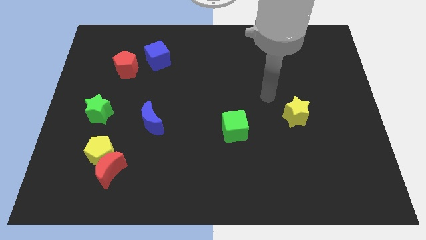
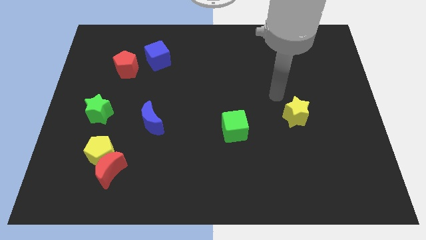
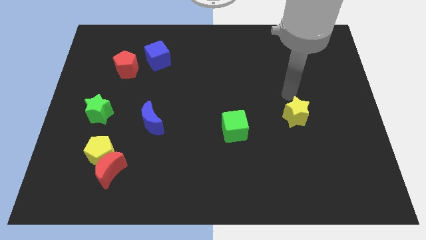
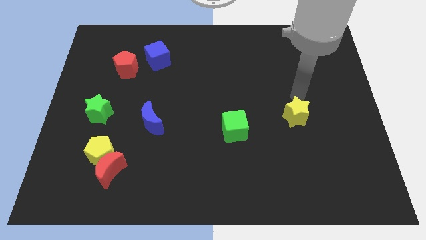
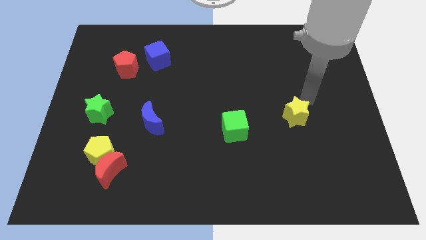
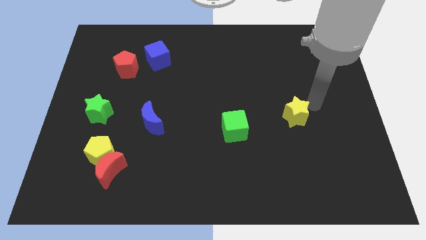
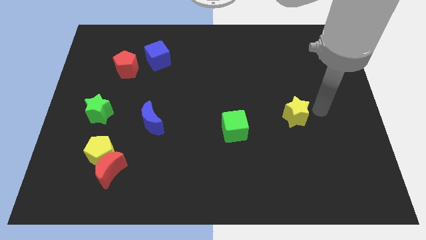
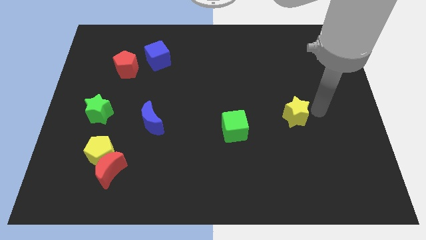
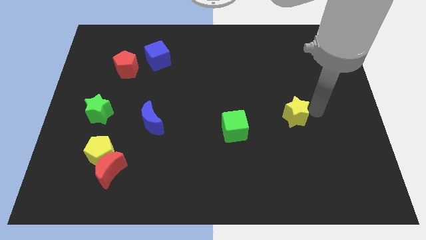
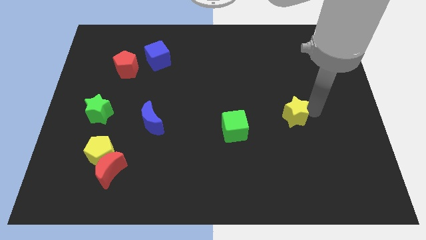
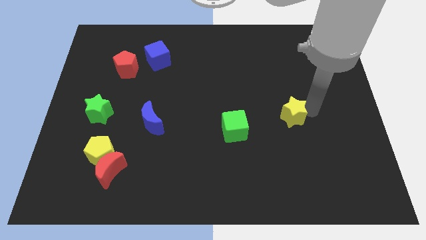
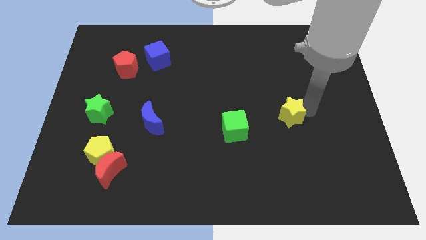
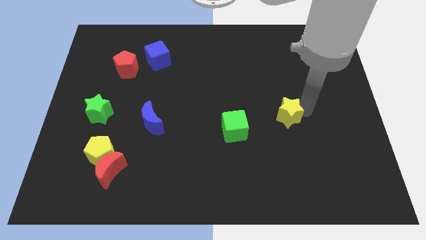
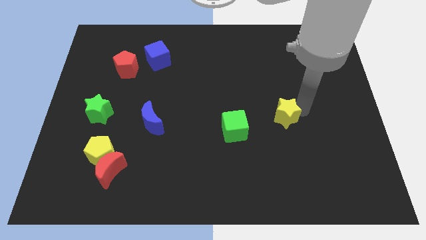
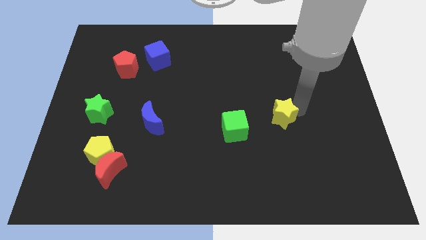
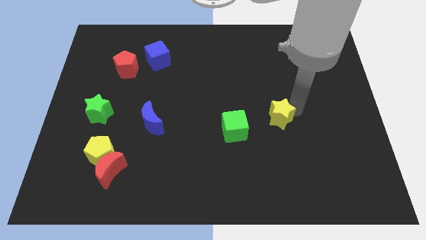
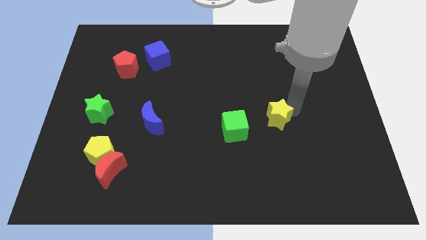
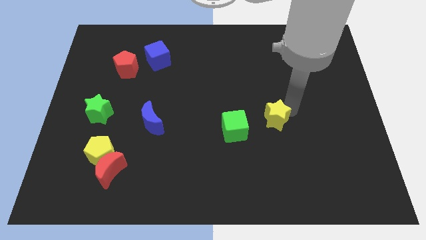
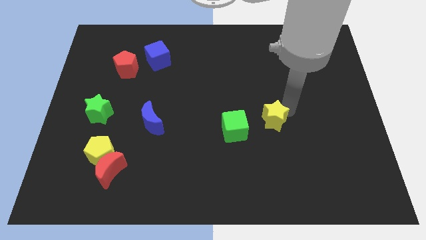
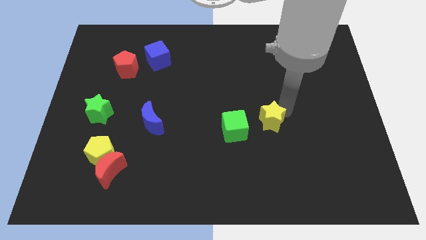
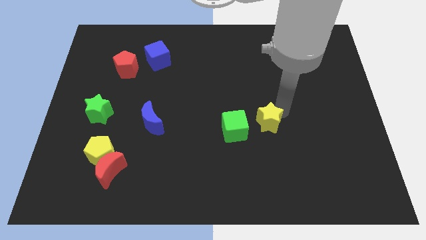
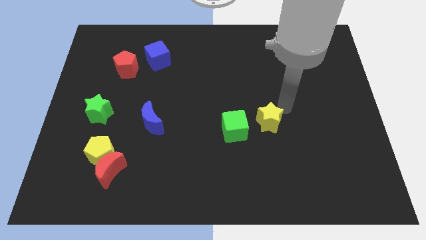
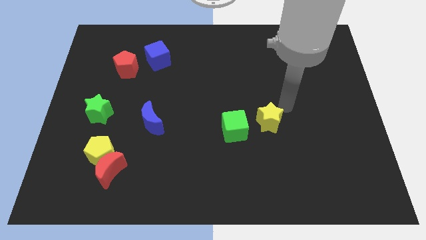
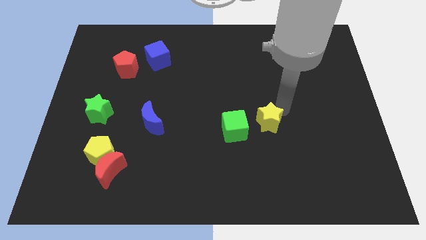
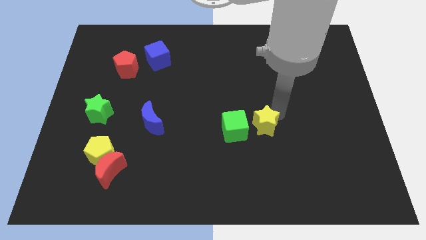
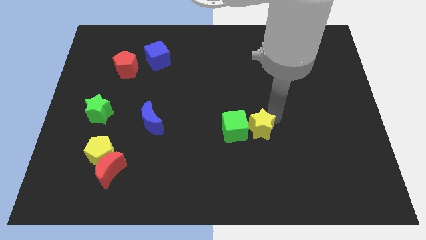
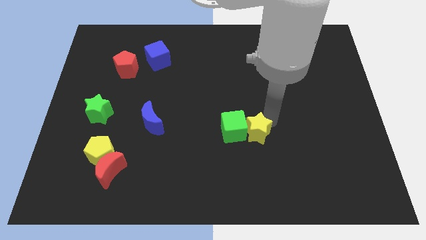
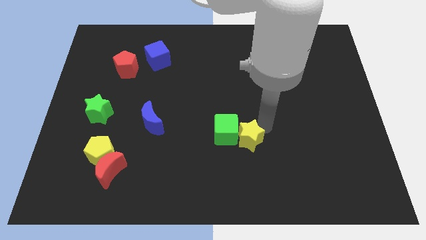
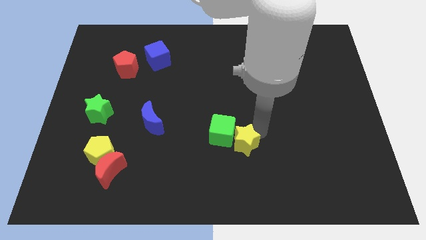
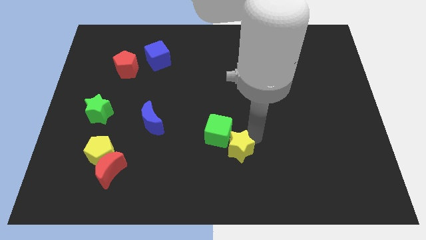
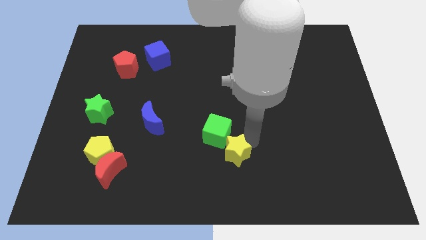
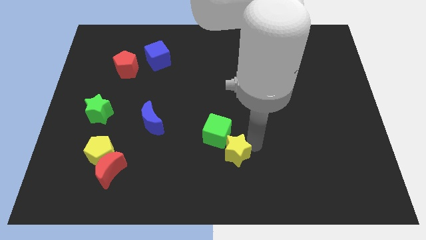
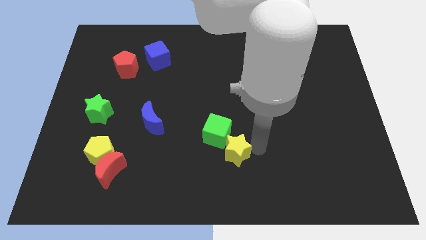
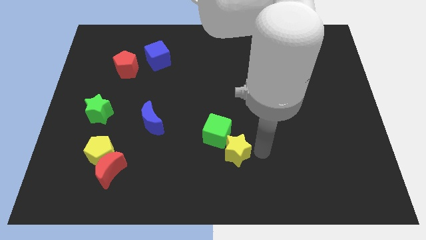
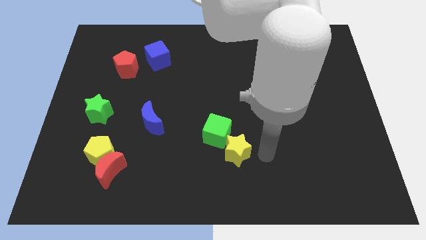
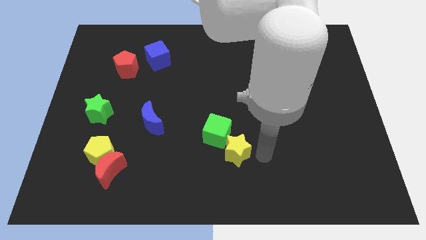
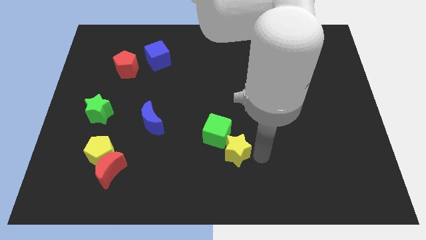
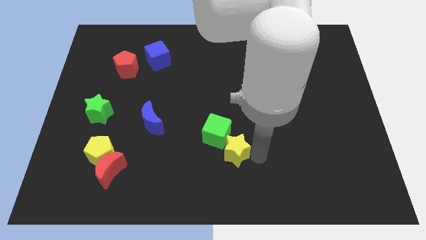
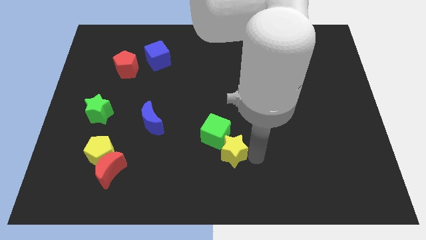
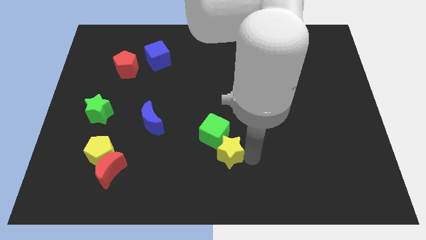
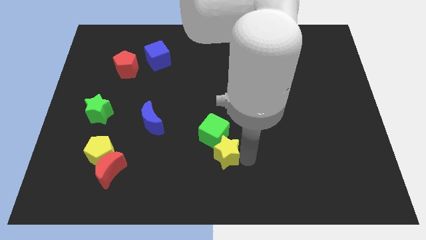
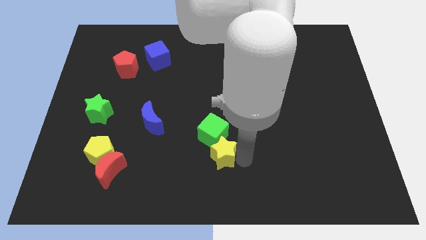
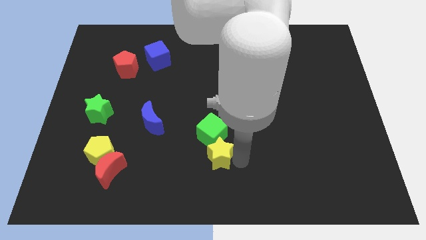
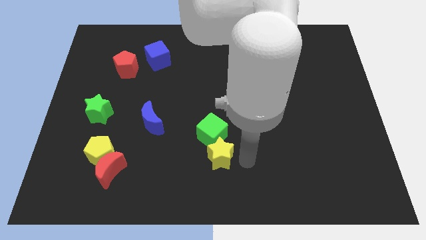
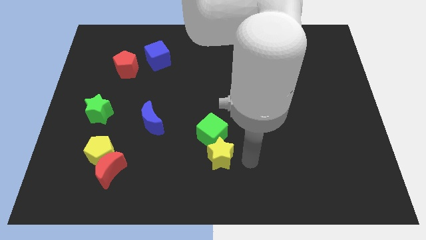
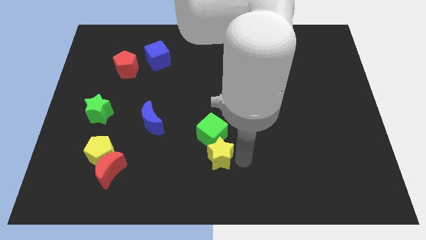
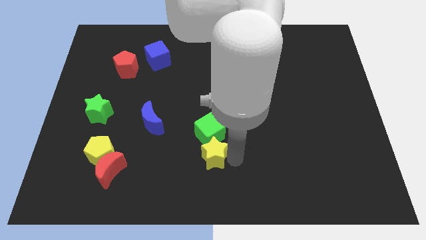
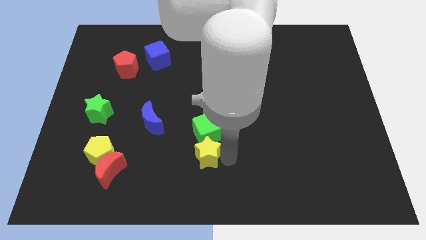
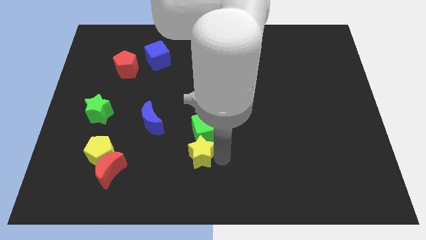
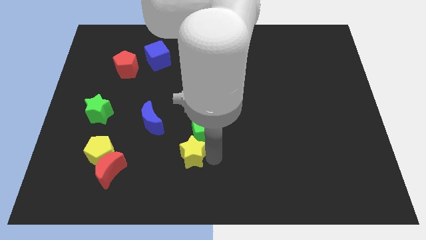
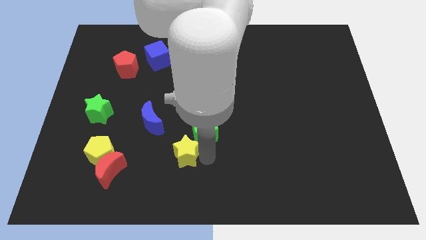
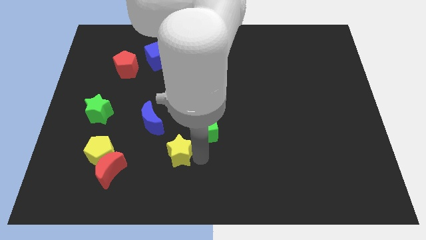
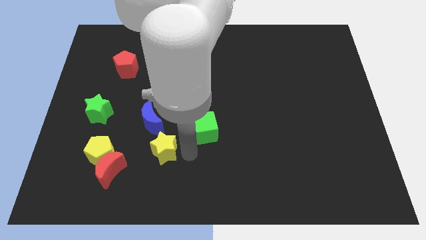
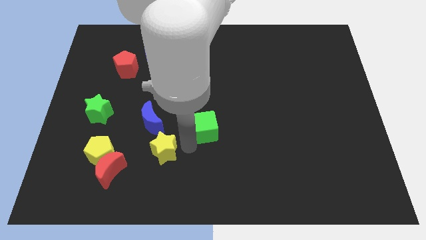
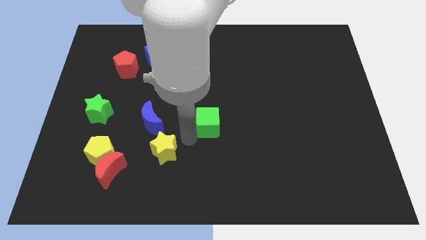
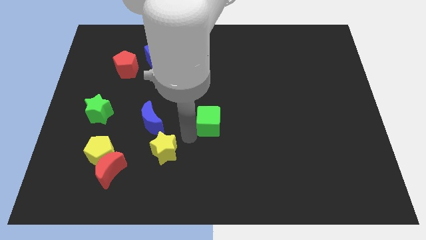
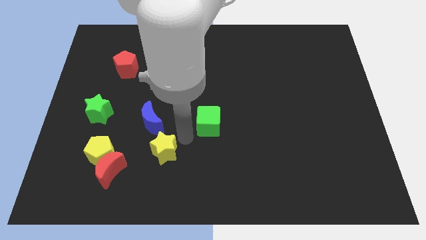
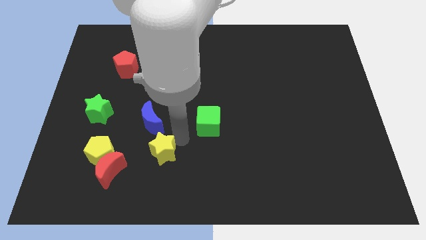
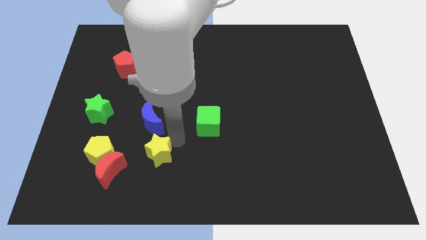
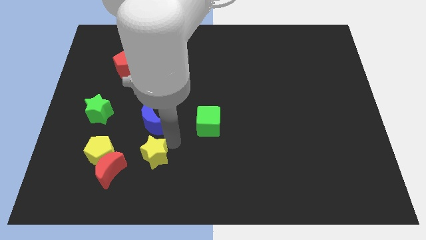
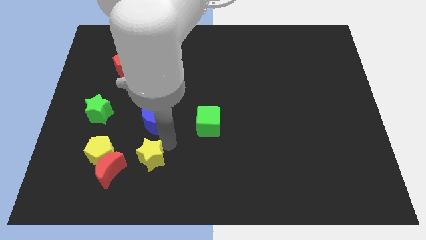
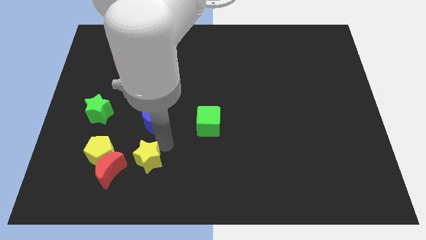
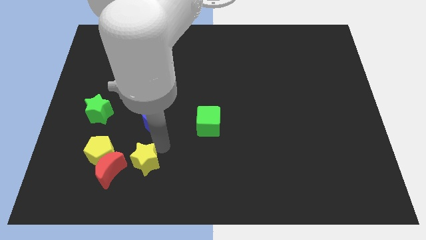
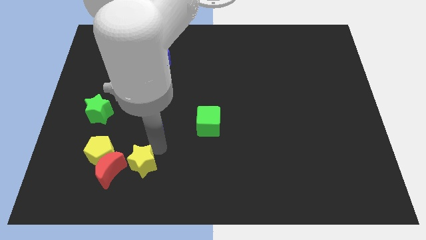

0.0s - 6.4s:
slide the yellow star diagonally down and to the right of the yellow pentagon
